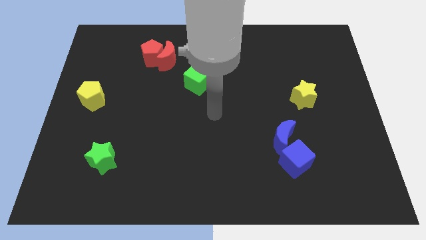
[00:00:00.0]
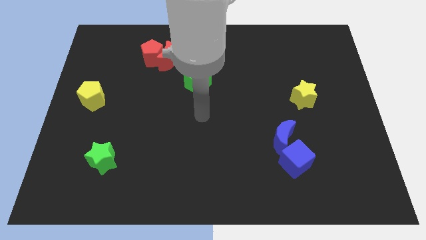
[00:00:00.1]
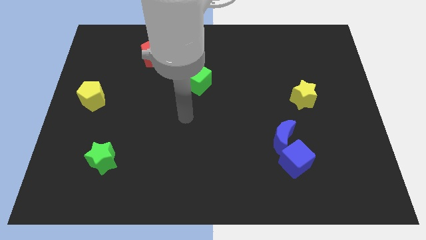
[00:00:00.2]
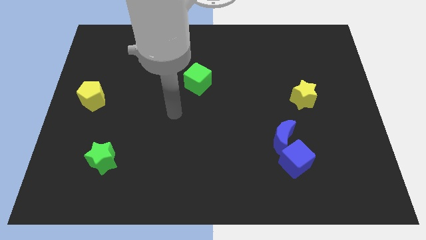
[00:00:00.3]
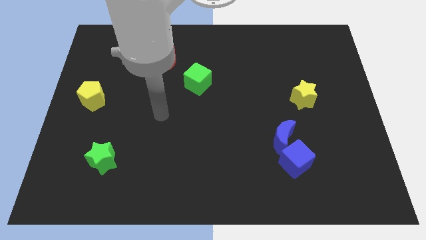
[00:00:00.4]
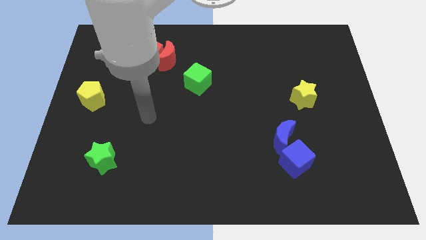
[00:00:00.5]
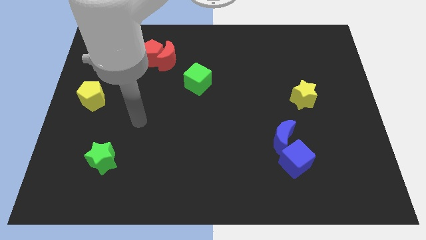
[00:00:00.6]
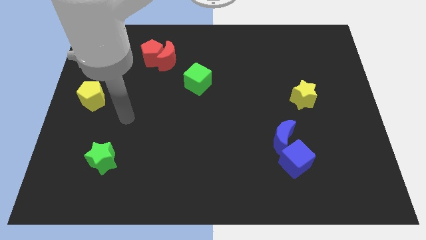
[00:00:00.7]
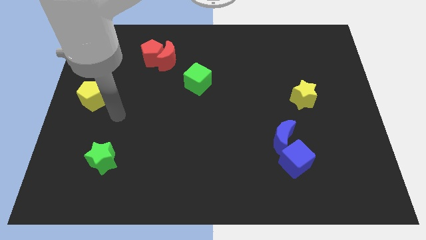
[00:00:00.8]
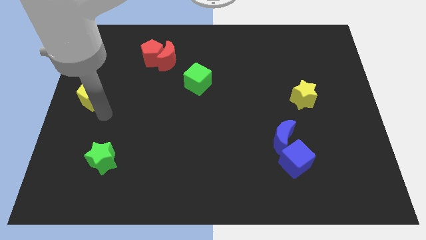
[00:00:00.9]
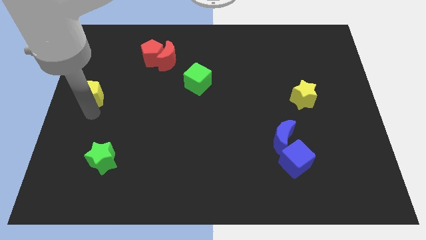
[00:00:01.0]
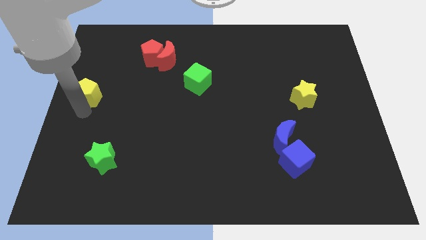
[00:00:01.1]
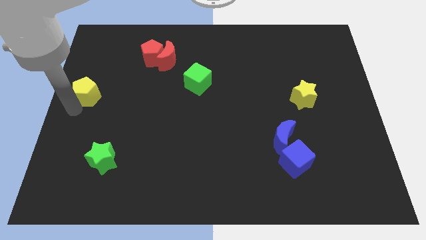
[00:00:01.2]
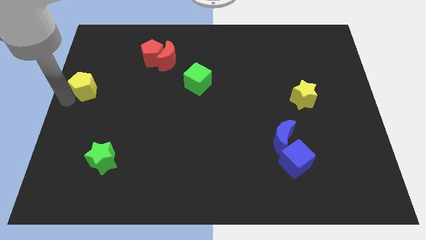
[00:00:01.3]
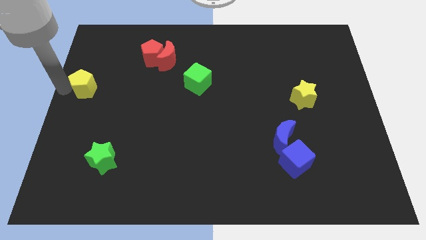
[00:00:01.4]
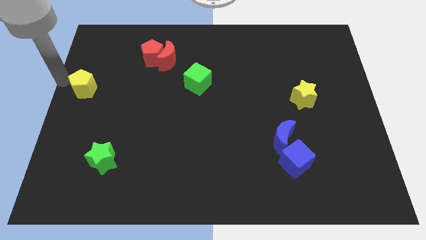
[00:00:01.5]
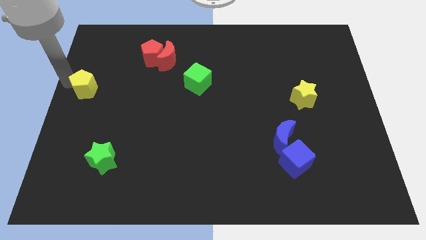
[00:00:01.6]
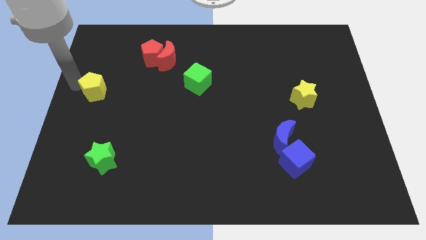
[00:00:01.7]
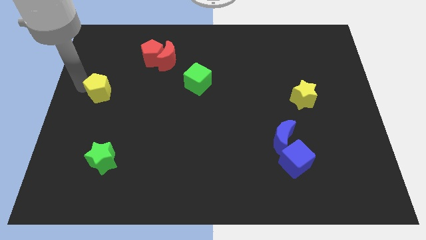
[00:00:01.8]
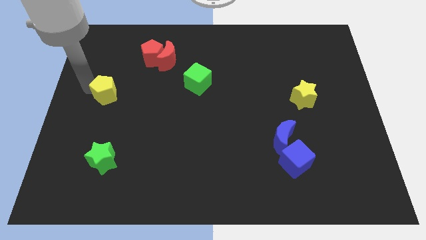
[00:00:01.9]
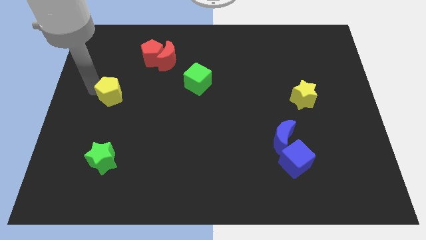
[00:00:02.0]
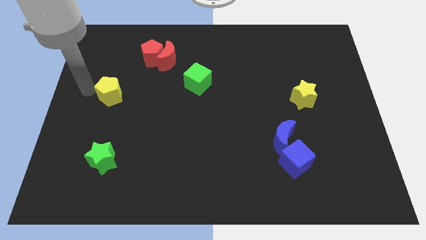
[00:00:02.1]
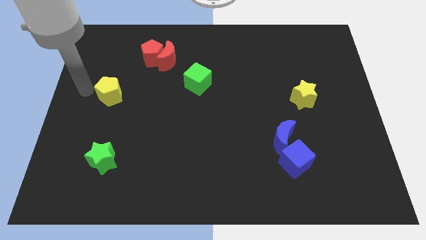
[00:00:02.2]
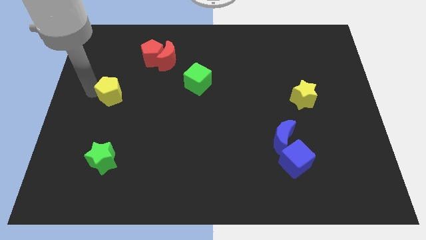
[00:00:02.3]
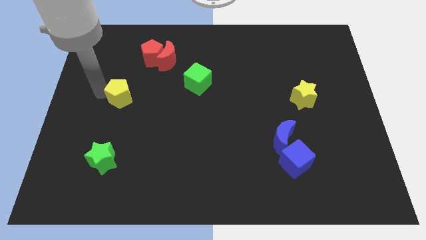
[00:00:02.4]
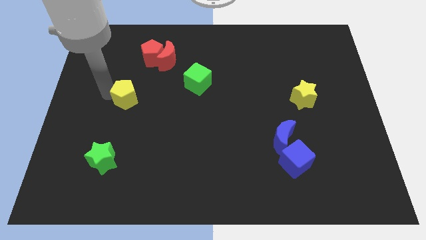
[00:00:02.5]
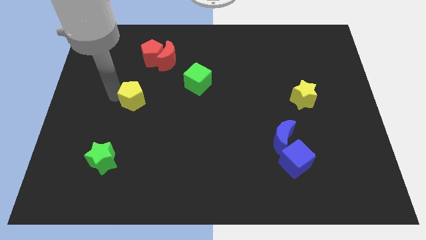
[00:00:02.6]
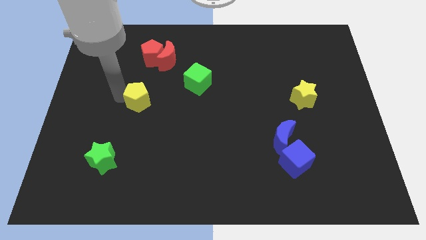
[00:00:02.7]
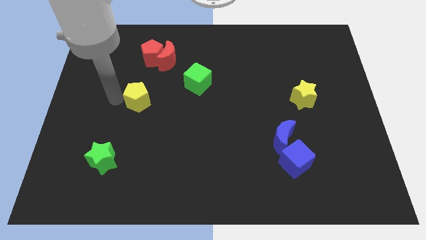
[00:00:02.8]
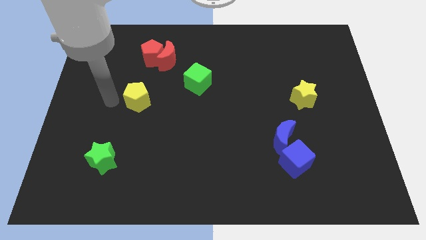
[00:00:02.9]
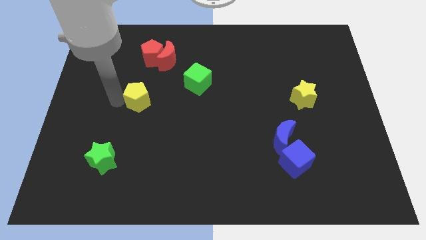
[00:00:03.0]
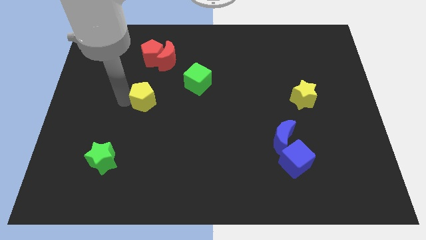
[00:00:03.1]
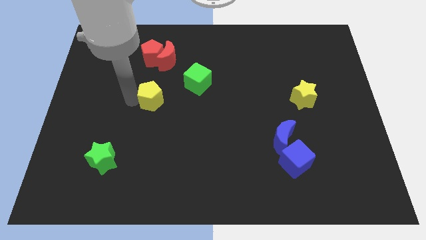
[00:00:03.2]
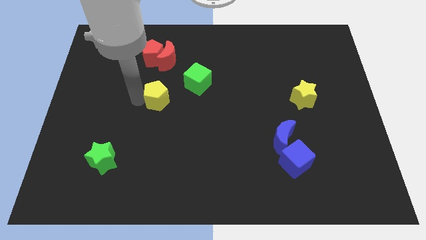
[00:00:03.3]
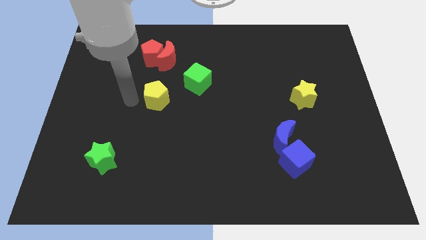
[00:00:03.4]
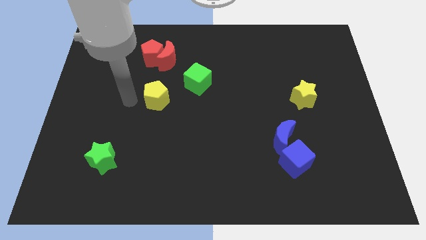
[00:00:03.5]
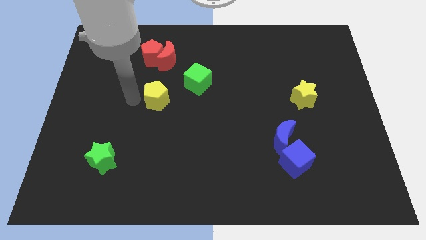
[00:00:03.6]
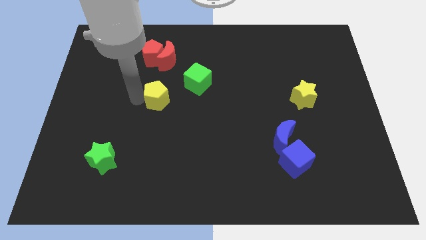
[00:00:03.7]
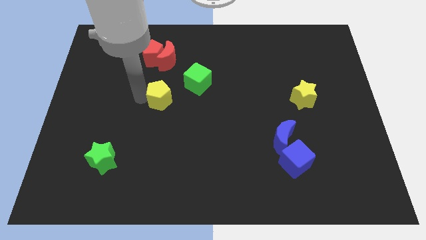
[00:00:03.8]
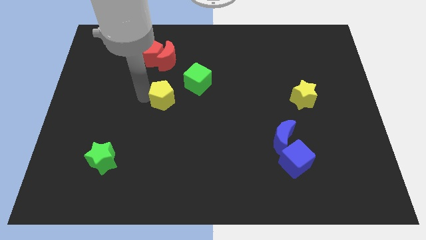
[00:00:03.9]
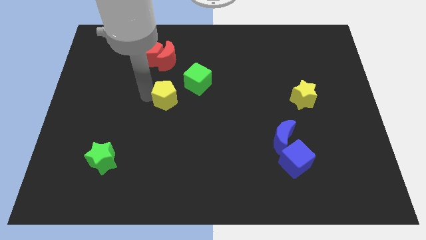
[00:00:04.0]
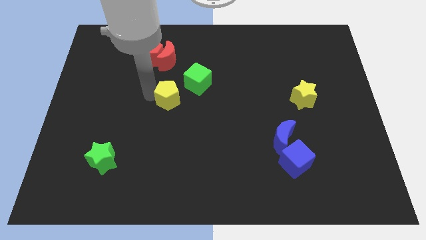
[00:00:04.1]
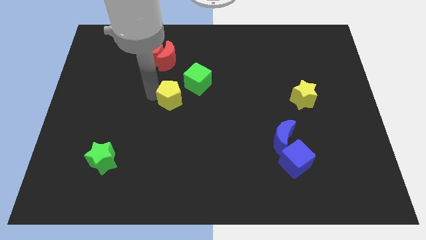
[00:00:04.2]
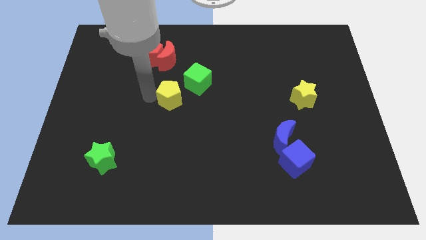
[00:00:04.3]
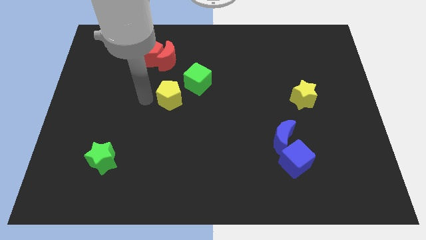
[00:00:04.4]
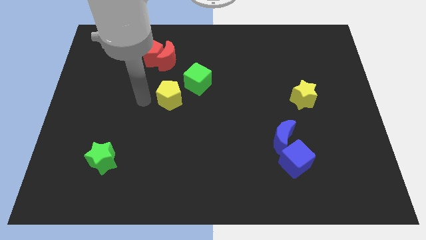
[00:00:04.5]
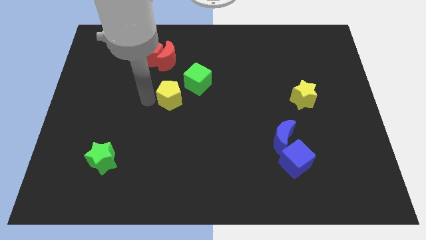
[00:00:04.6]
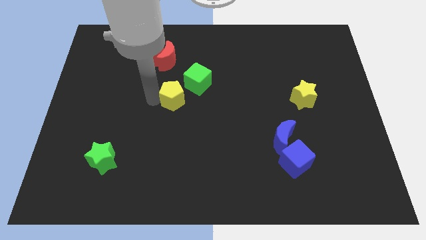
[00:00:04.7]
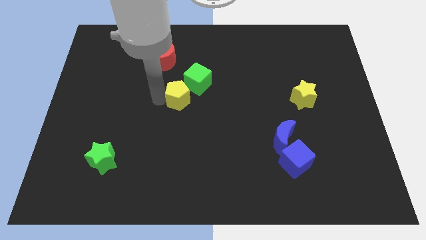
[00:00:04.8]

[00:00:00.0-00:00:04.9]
push the yellow pentagon to the right

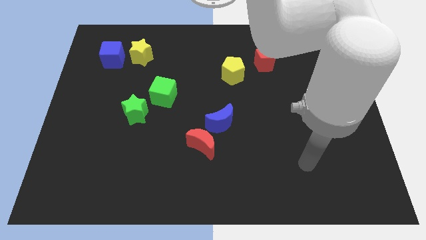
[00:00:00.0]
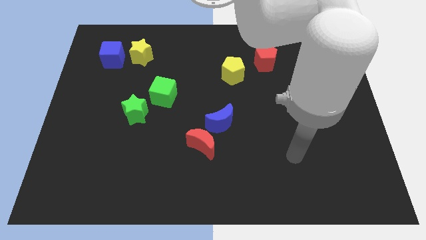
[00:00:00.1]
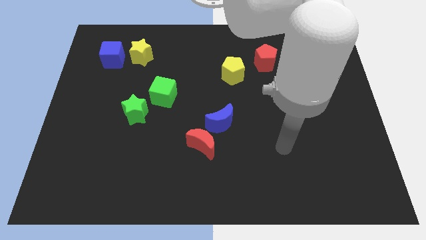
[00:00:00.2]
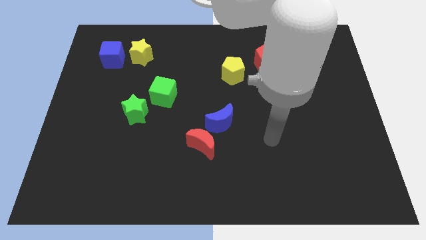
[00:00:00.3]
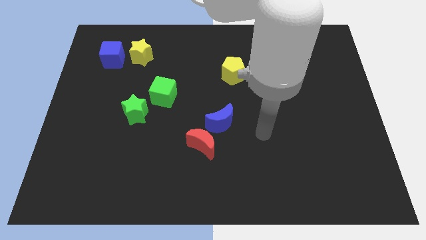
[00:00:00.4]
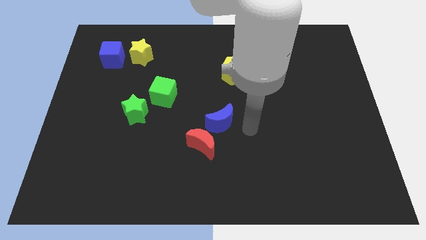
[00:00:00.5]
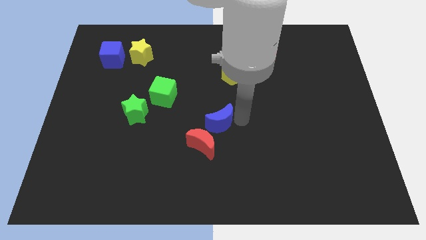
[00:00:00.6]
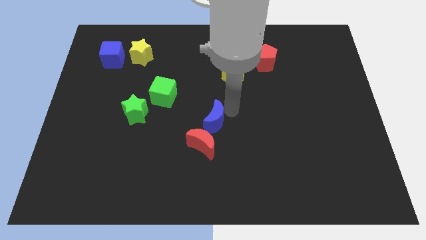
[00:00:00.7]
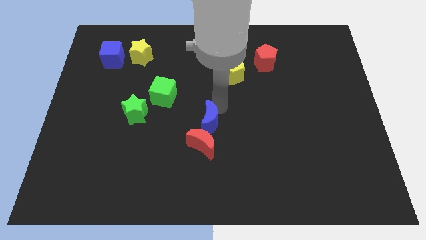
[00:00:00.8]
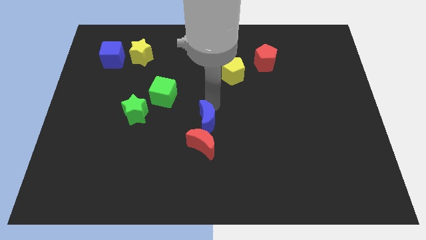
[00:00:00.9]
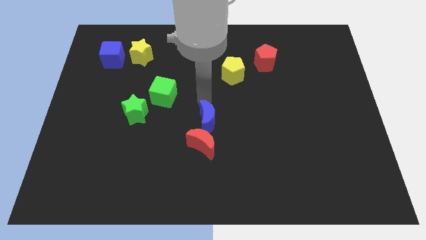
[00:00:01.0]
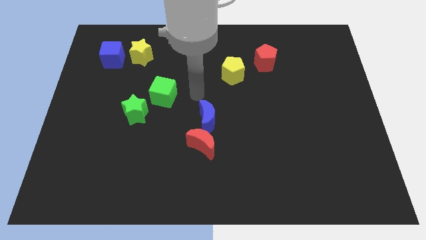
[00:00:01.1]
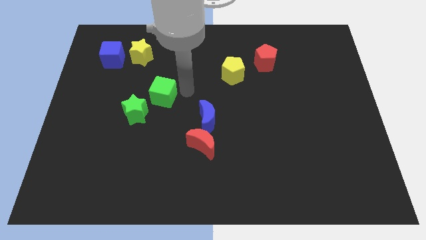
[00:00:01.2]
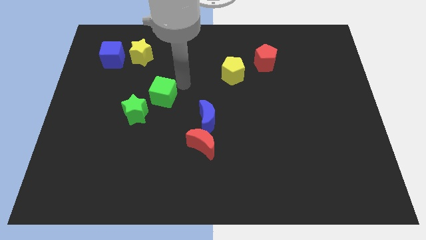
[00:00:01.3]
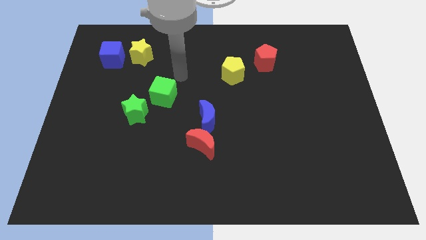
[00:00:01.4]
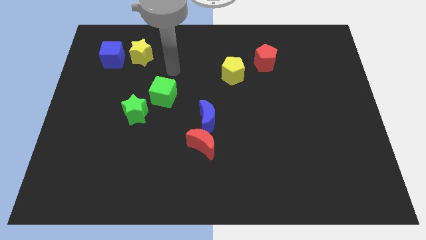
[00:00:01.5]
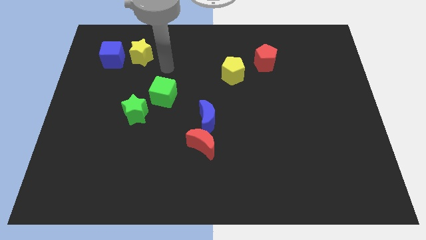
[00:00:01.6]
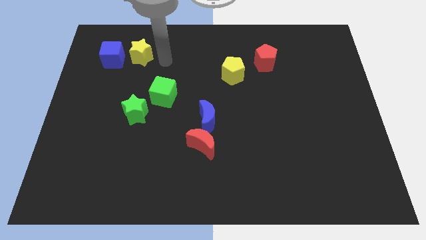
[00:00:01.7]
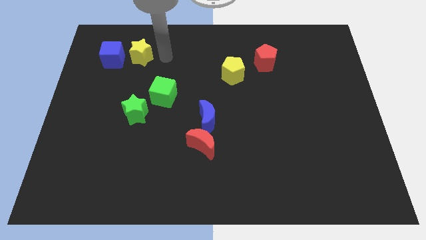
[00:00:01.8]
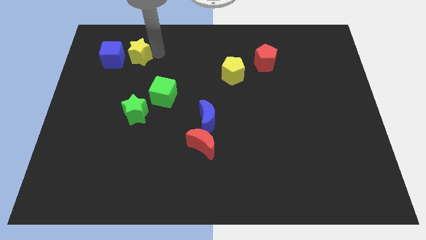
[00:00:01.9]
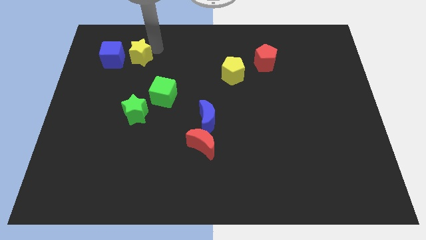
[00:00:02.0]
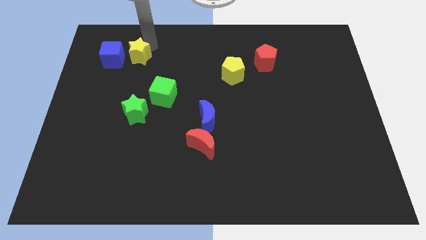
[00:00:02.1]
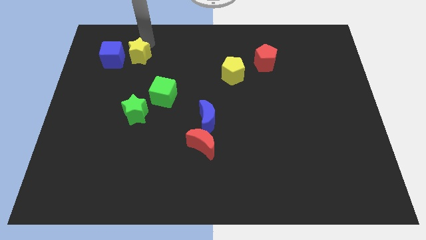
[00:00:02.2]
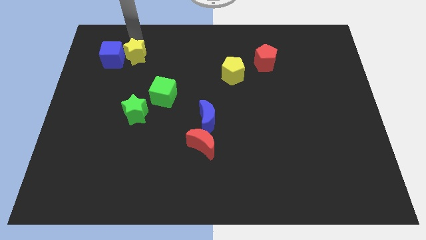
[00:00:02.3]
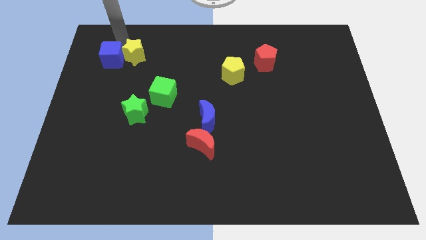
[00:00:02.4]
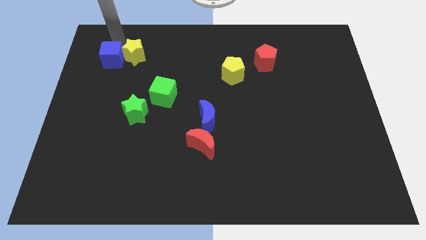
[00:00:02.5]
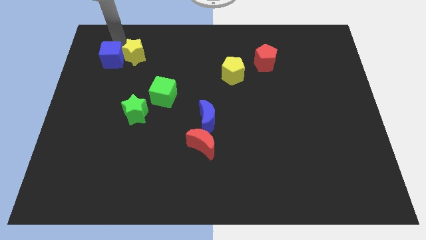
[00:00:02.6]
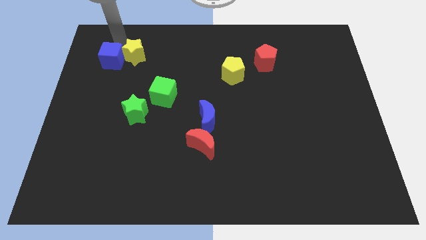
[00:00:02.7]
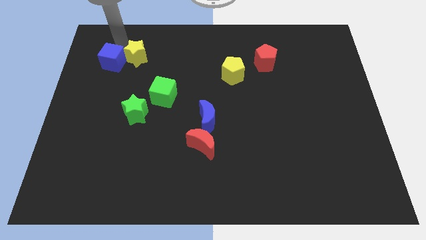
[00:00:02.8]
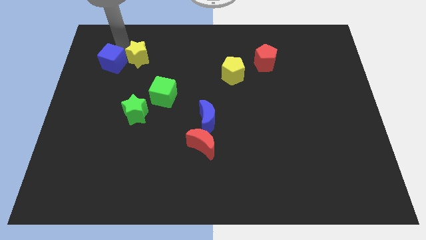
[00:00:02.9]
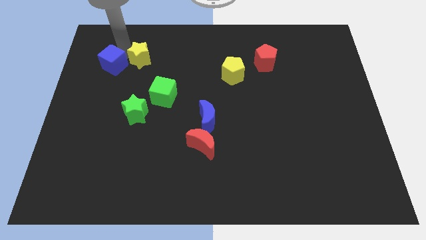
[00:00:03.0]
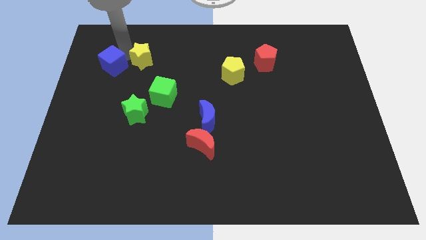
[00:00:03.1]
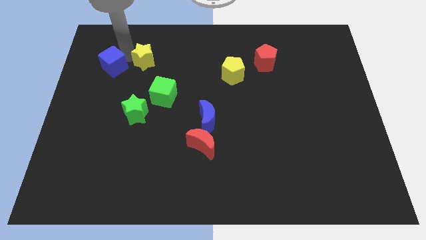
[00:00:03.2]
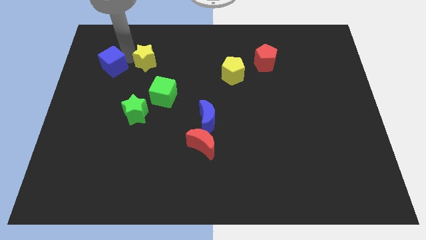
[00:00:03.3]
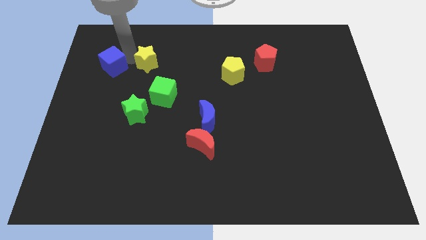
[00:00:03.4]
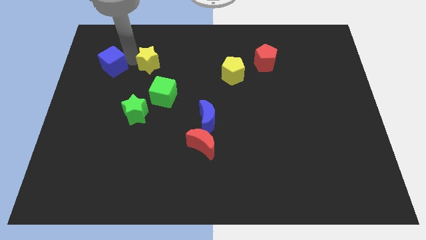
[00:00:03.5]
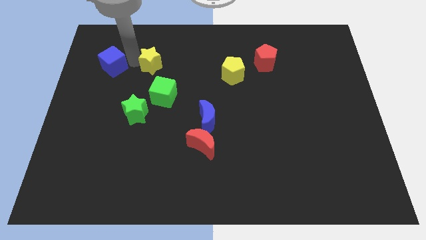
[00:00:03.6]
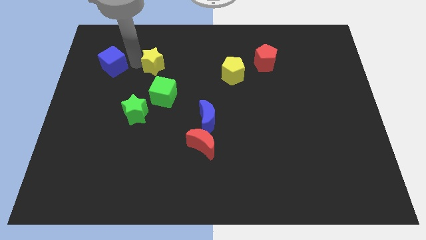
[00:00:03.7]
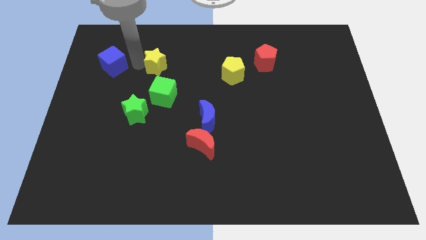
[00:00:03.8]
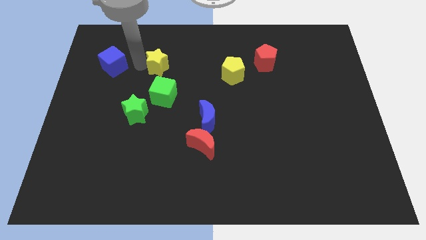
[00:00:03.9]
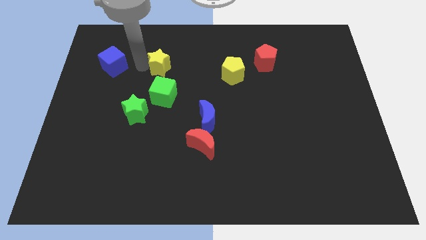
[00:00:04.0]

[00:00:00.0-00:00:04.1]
slightly slide the yellow star down and right diagonally
